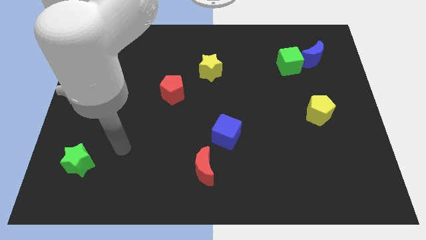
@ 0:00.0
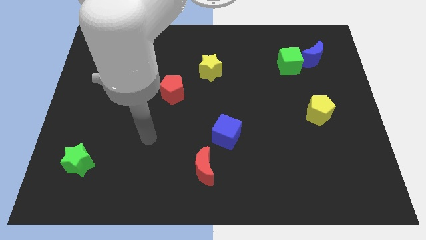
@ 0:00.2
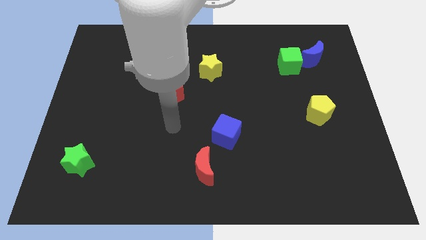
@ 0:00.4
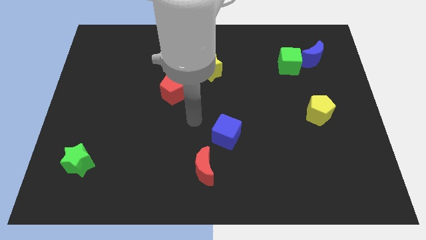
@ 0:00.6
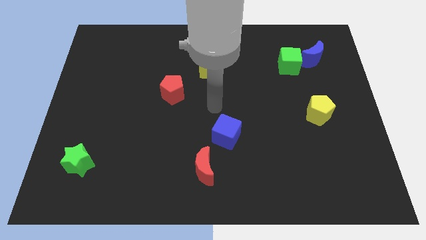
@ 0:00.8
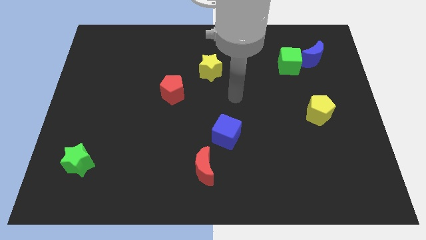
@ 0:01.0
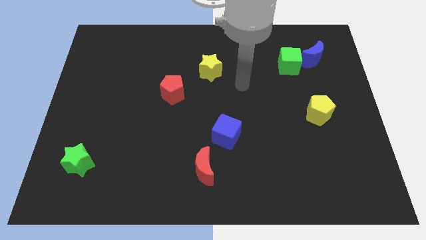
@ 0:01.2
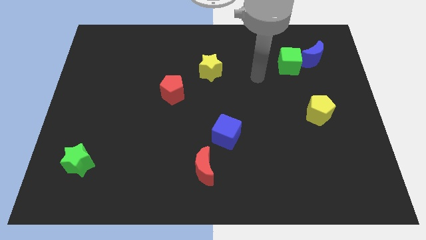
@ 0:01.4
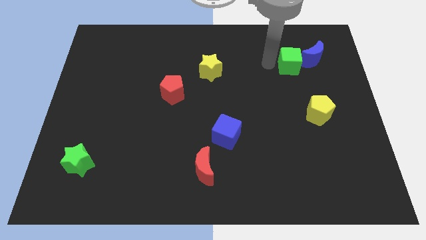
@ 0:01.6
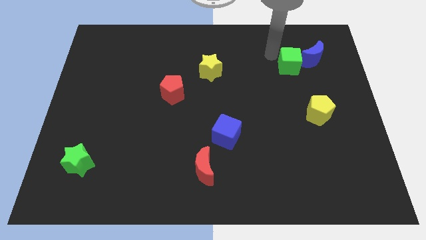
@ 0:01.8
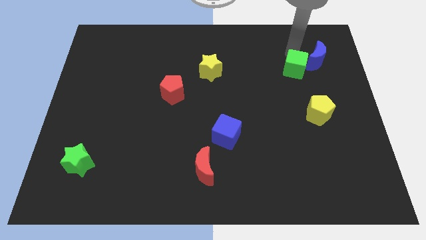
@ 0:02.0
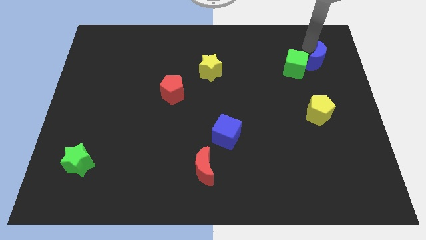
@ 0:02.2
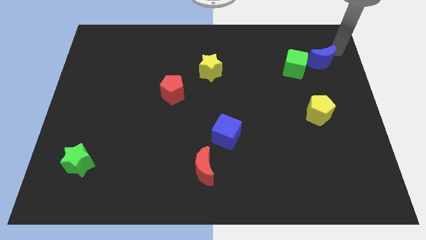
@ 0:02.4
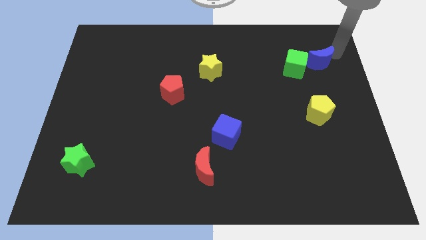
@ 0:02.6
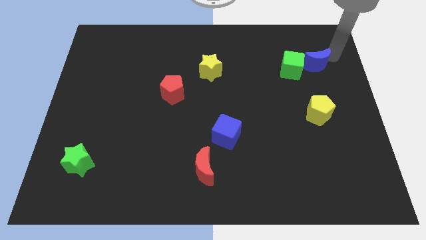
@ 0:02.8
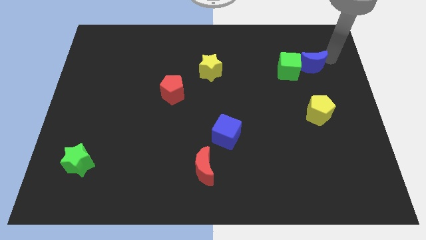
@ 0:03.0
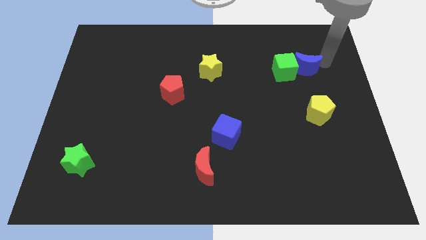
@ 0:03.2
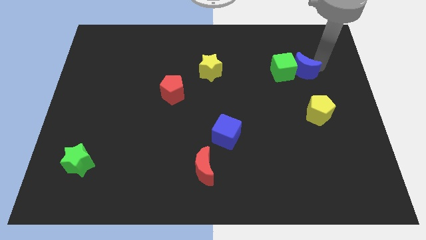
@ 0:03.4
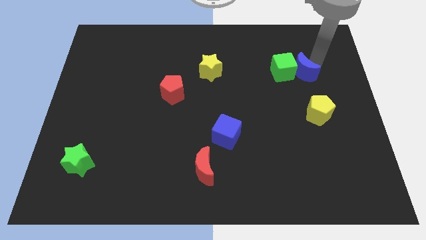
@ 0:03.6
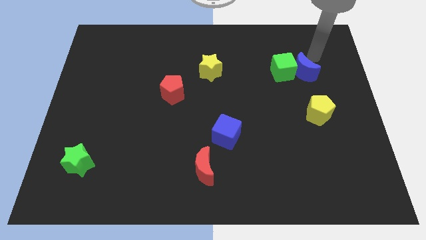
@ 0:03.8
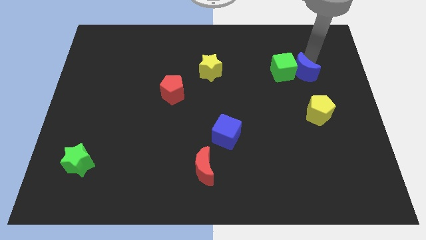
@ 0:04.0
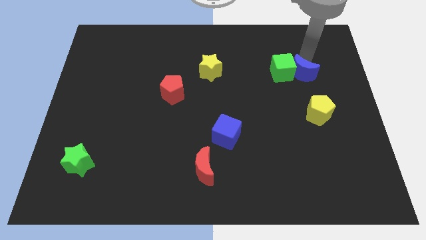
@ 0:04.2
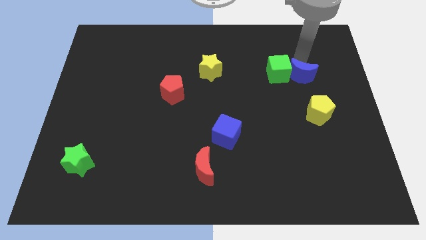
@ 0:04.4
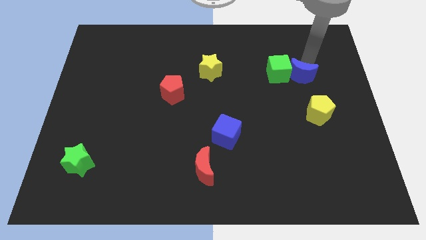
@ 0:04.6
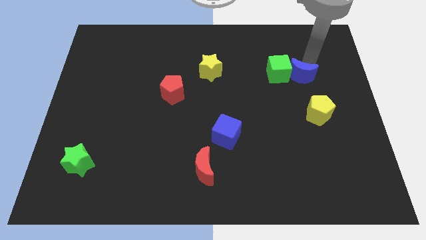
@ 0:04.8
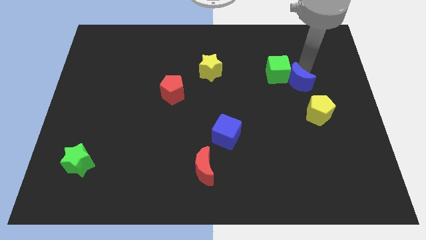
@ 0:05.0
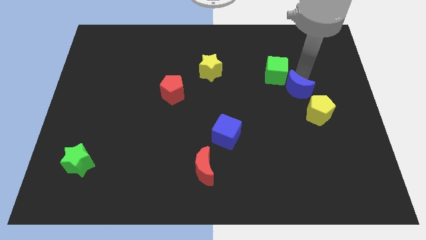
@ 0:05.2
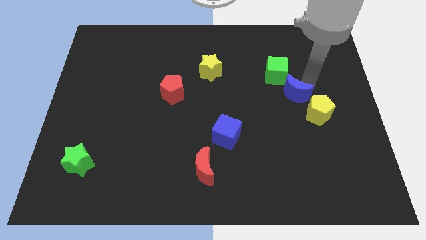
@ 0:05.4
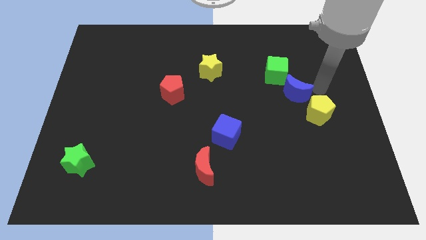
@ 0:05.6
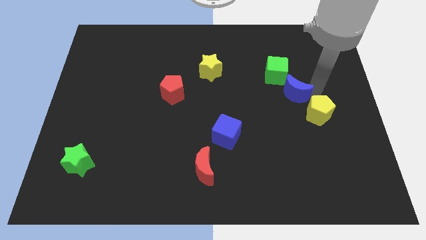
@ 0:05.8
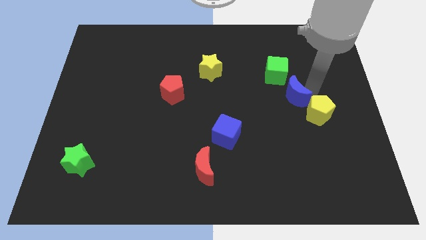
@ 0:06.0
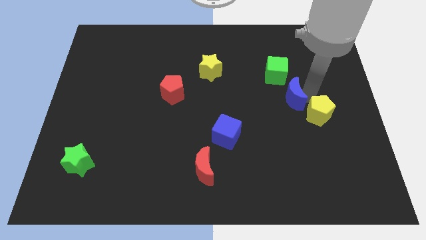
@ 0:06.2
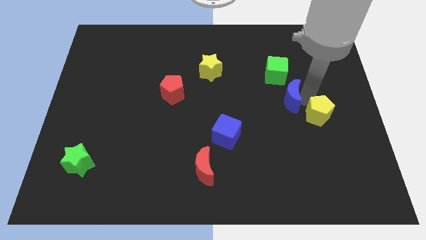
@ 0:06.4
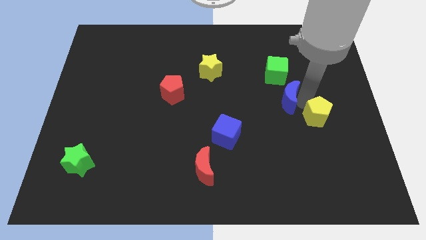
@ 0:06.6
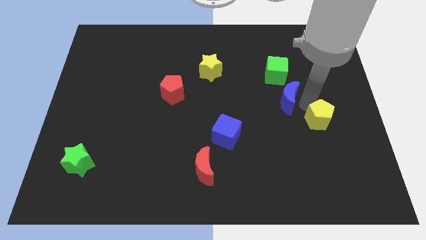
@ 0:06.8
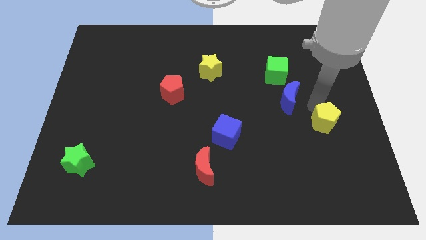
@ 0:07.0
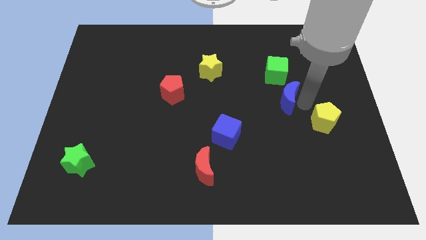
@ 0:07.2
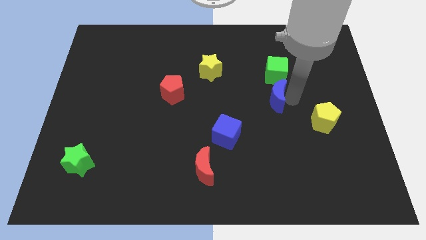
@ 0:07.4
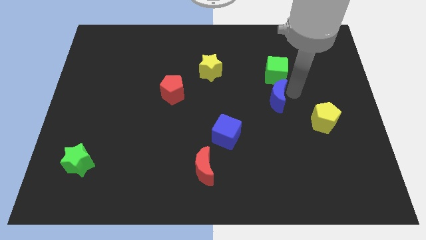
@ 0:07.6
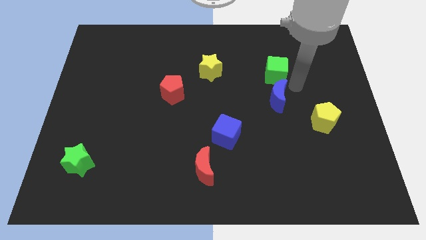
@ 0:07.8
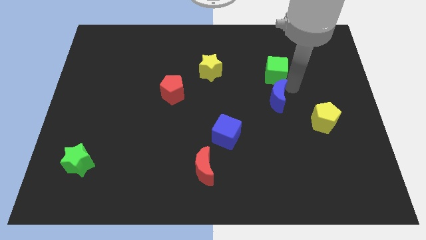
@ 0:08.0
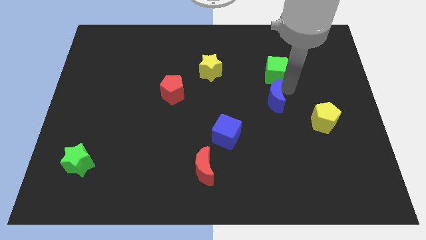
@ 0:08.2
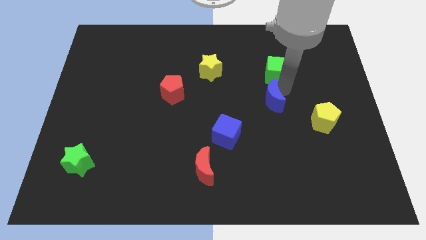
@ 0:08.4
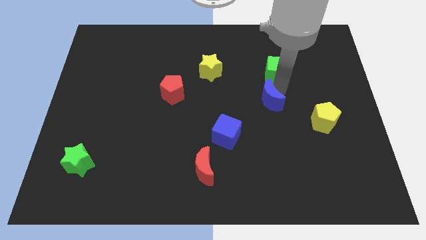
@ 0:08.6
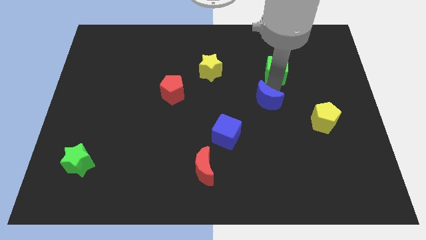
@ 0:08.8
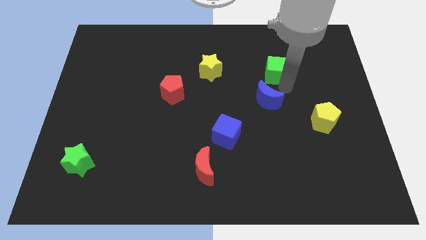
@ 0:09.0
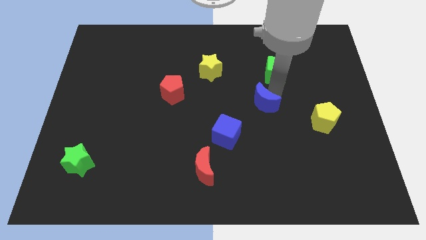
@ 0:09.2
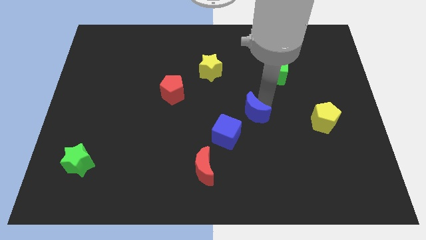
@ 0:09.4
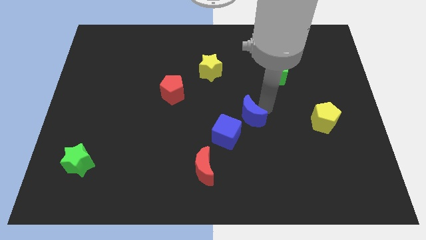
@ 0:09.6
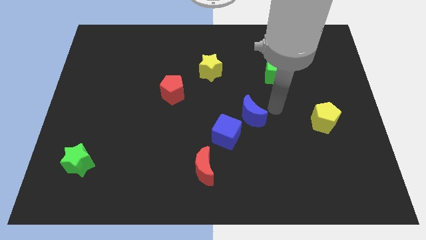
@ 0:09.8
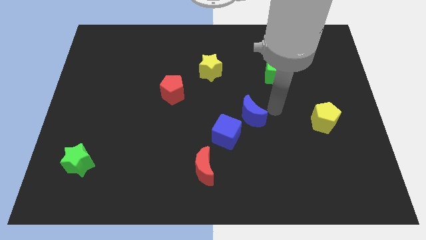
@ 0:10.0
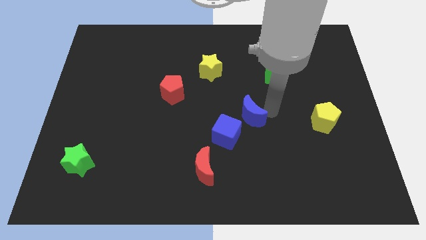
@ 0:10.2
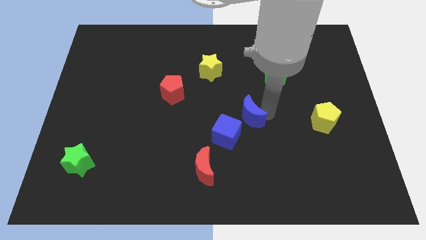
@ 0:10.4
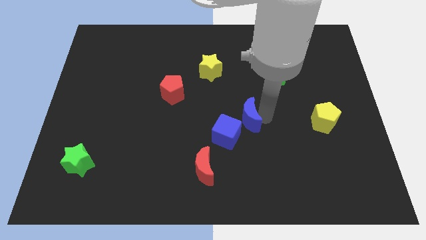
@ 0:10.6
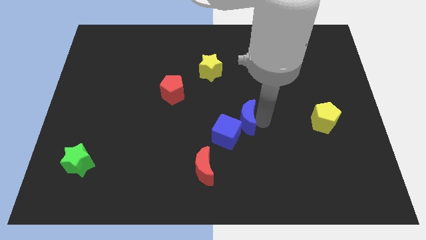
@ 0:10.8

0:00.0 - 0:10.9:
put the blue moon close to the blue cube

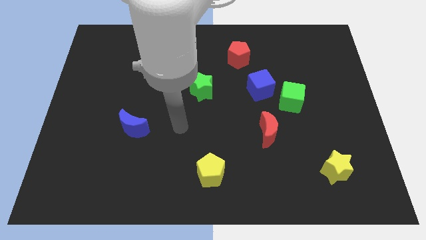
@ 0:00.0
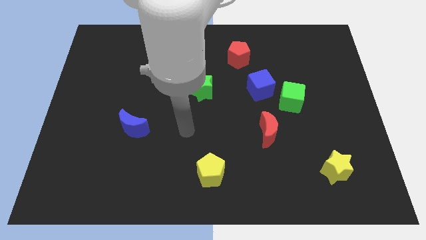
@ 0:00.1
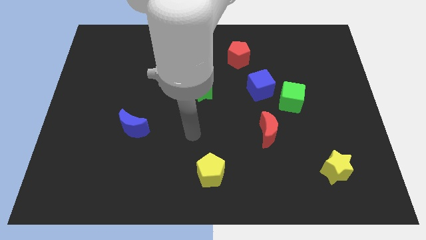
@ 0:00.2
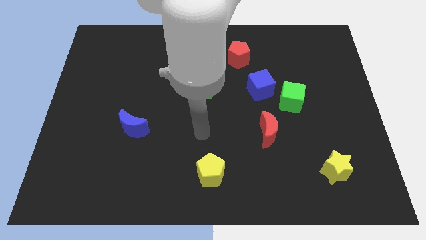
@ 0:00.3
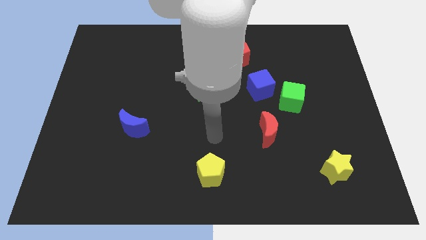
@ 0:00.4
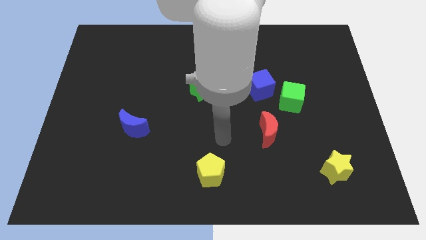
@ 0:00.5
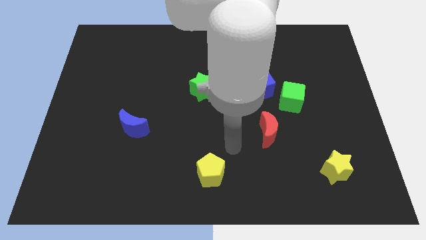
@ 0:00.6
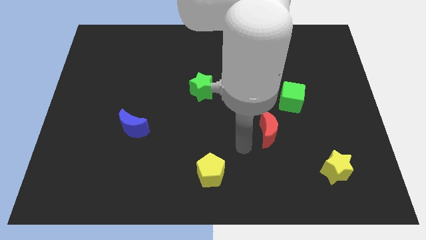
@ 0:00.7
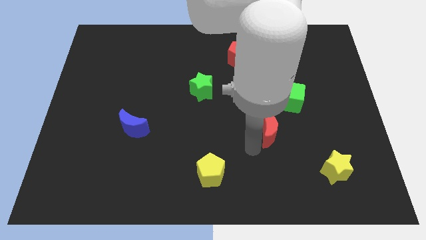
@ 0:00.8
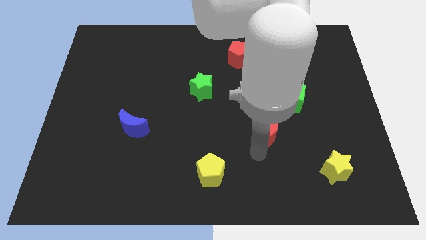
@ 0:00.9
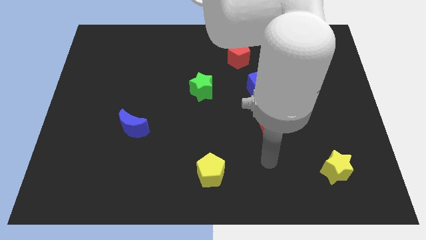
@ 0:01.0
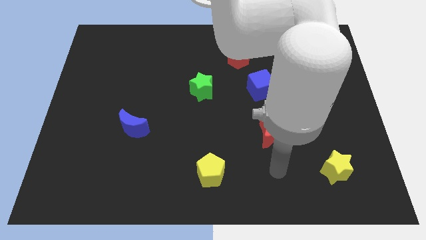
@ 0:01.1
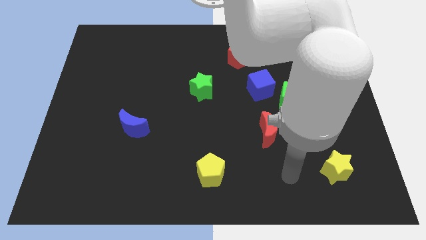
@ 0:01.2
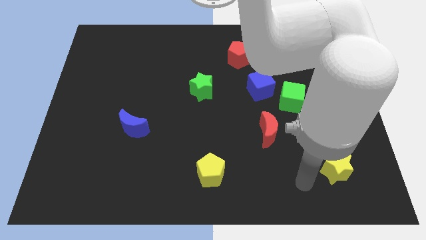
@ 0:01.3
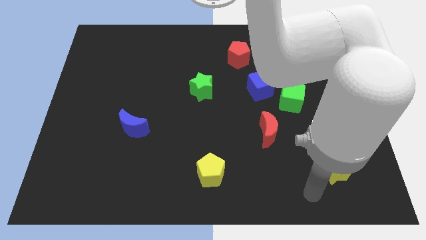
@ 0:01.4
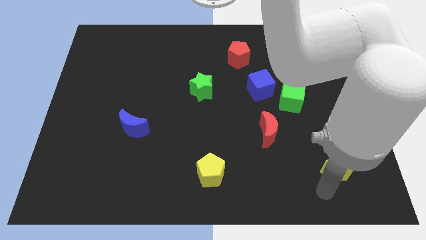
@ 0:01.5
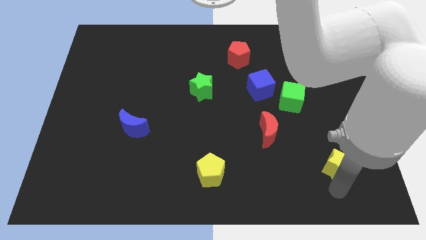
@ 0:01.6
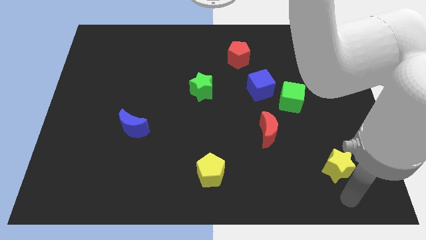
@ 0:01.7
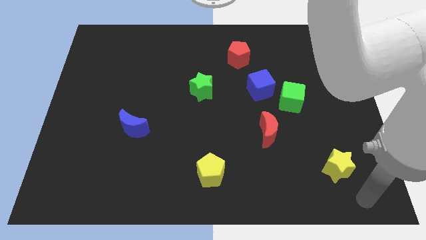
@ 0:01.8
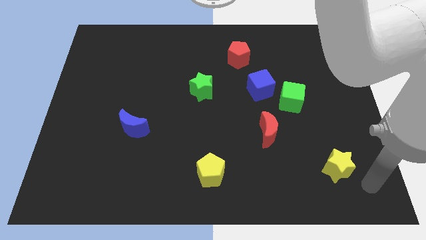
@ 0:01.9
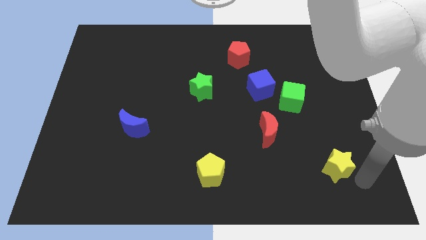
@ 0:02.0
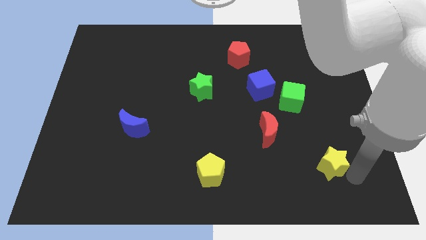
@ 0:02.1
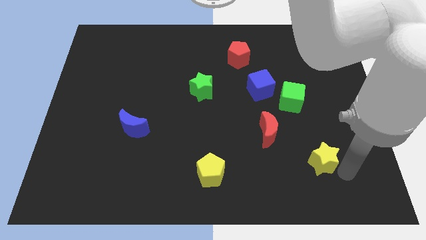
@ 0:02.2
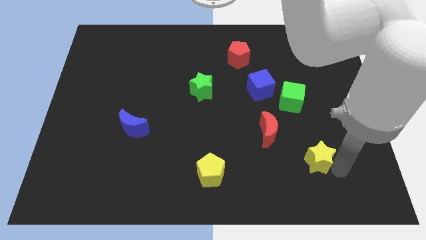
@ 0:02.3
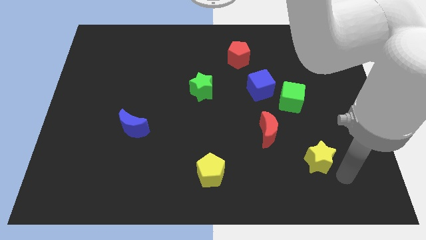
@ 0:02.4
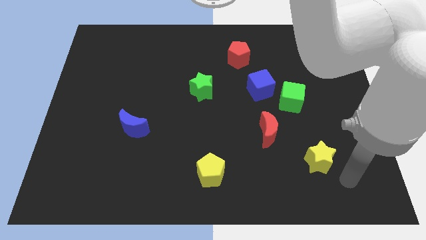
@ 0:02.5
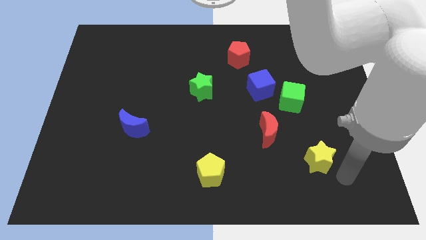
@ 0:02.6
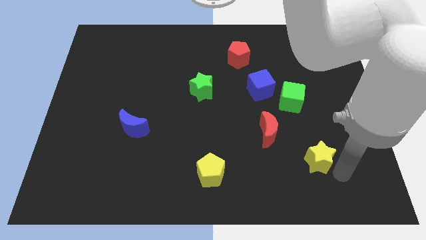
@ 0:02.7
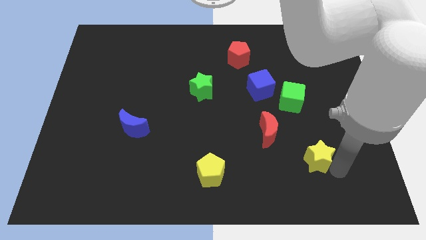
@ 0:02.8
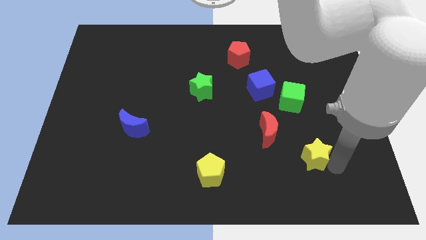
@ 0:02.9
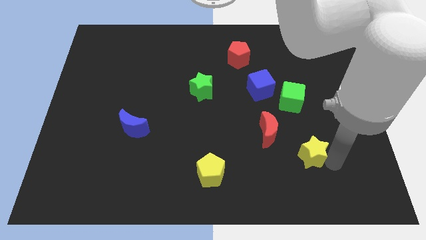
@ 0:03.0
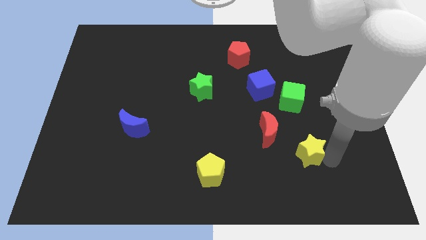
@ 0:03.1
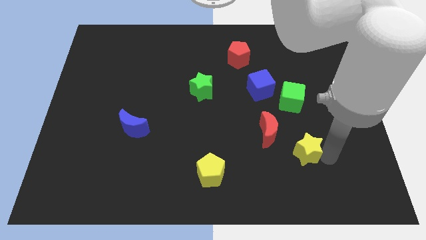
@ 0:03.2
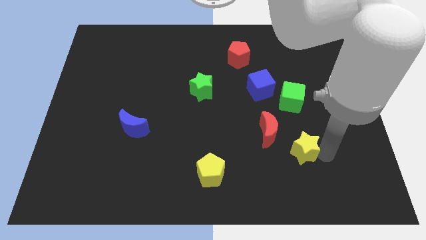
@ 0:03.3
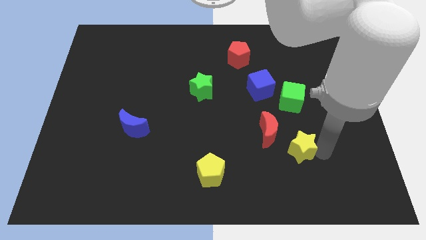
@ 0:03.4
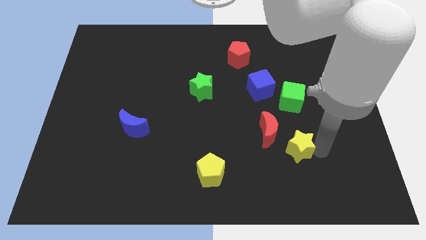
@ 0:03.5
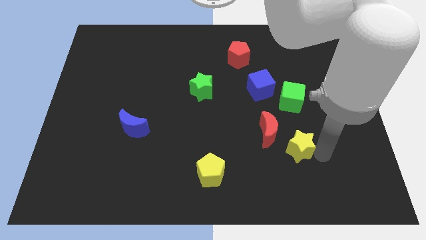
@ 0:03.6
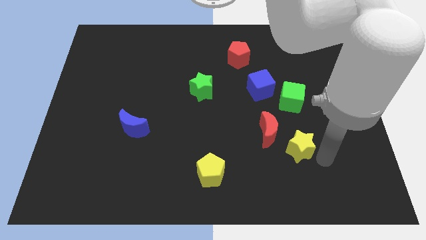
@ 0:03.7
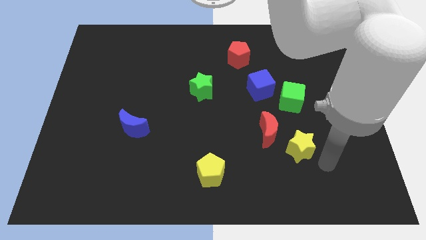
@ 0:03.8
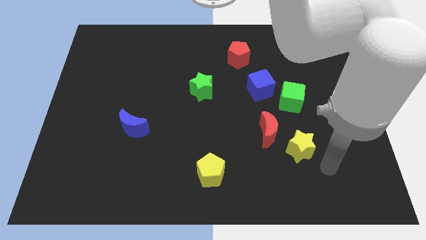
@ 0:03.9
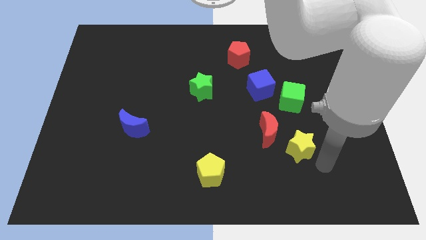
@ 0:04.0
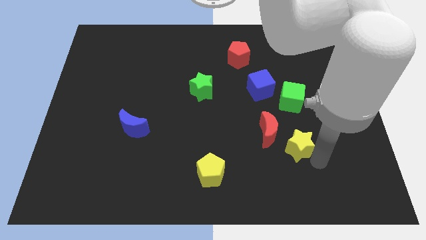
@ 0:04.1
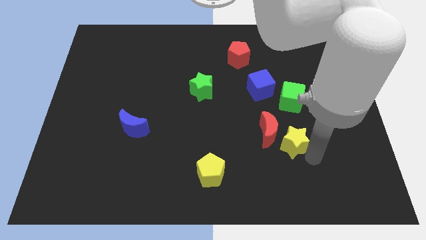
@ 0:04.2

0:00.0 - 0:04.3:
put the yellow star towards the red moon
